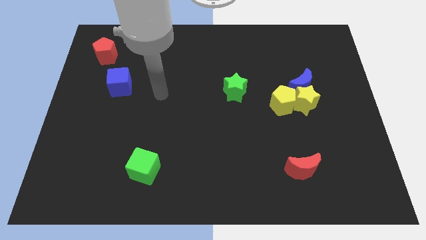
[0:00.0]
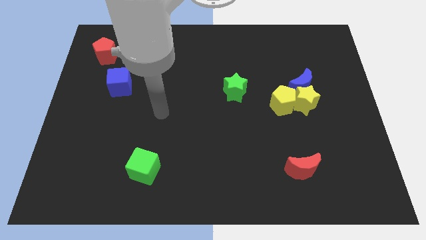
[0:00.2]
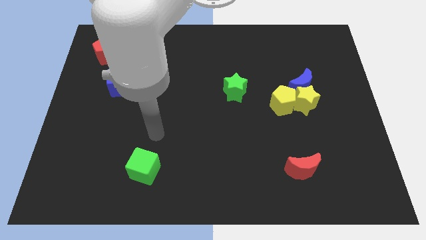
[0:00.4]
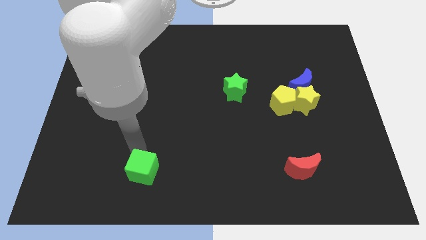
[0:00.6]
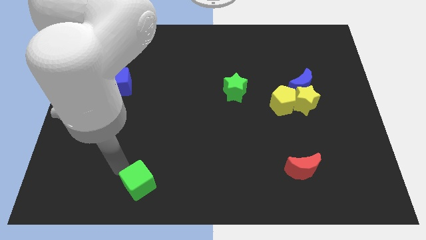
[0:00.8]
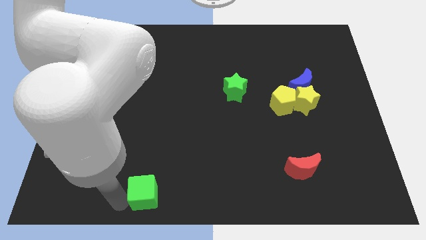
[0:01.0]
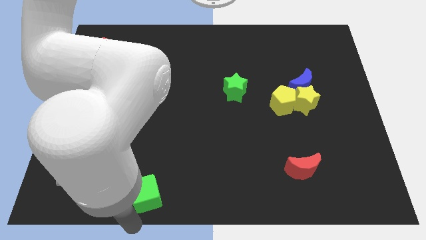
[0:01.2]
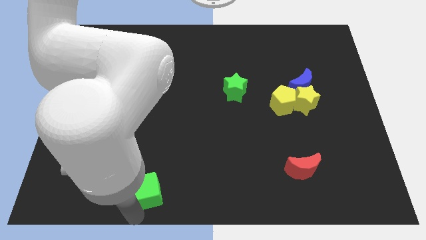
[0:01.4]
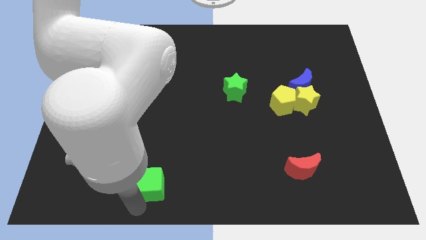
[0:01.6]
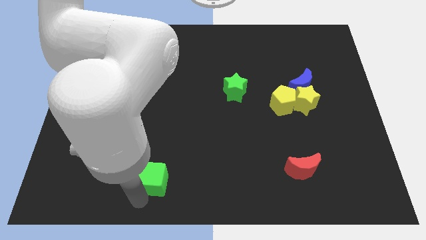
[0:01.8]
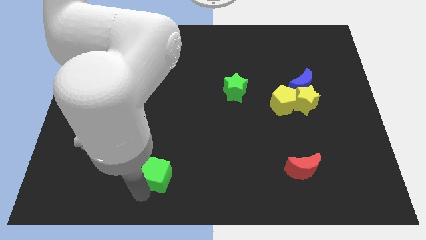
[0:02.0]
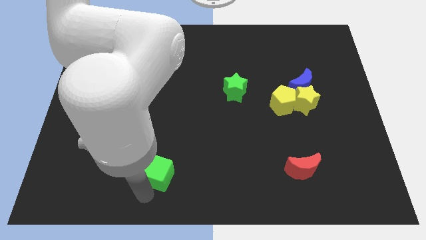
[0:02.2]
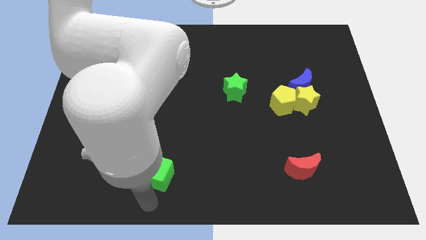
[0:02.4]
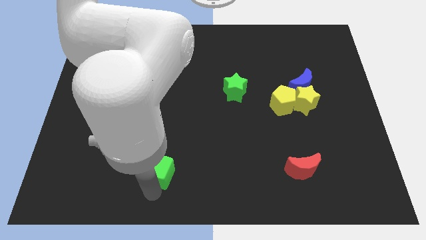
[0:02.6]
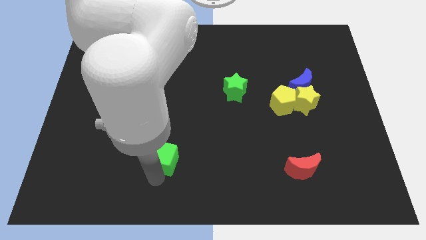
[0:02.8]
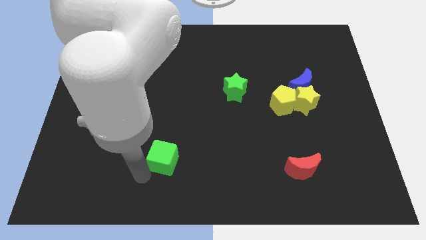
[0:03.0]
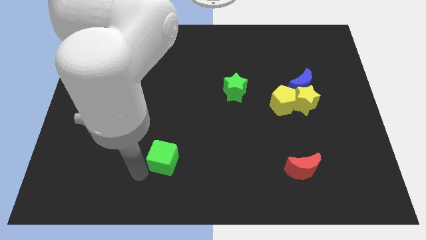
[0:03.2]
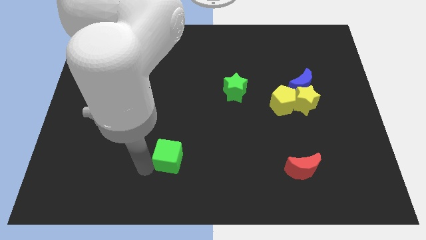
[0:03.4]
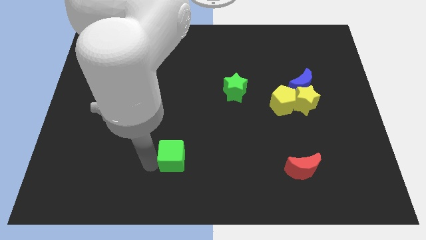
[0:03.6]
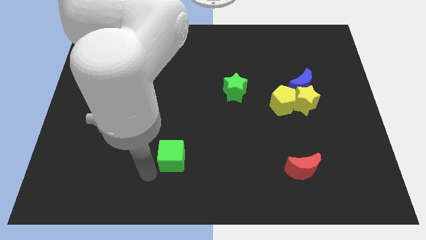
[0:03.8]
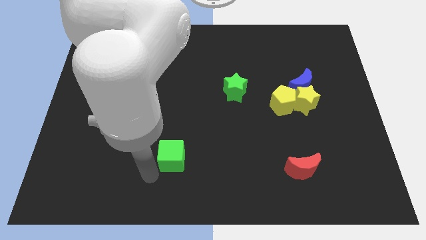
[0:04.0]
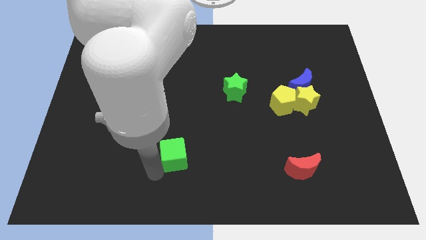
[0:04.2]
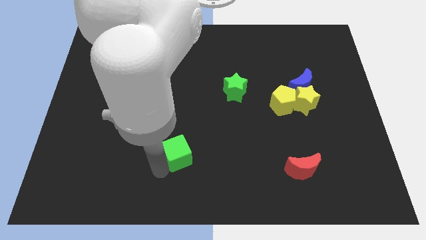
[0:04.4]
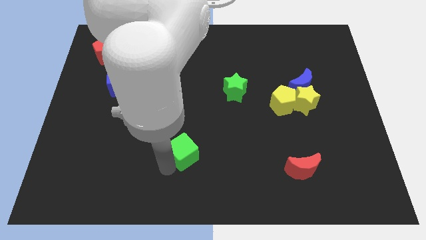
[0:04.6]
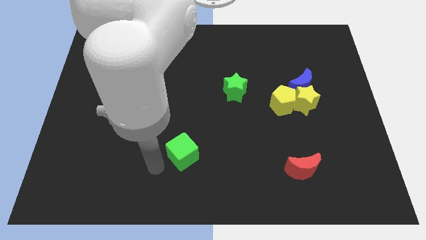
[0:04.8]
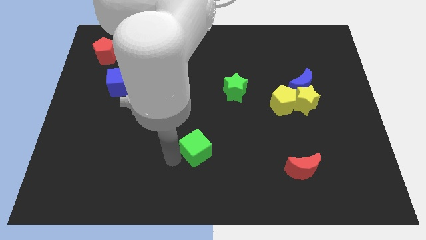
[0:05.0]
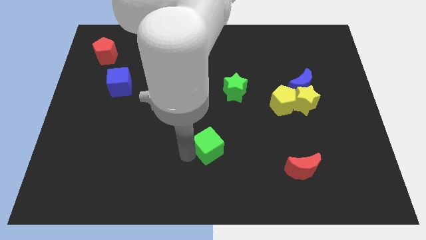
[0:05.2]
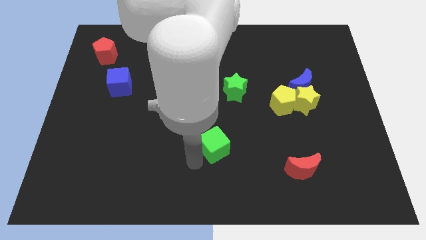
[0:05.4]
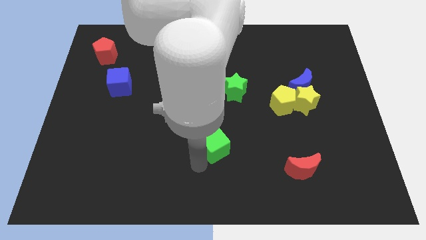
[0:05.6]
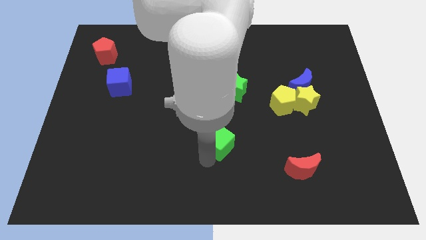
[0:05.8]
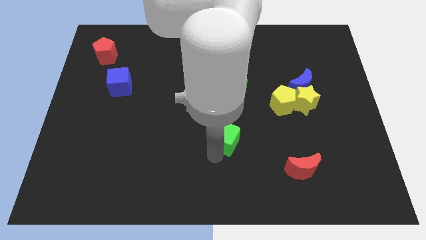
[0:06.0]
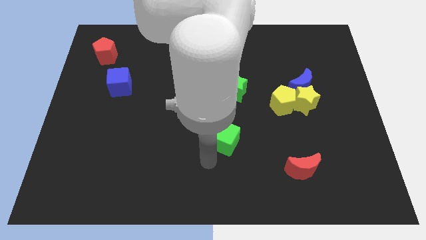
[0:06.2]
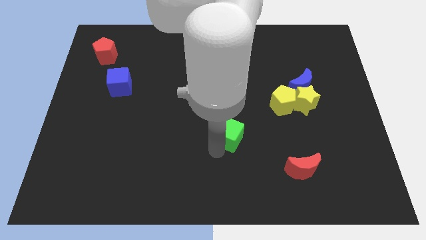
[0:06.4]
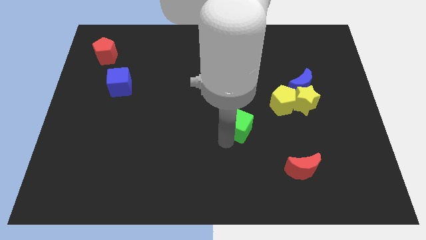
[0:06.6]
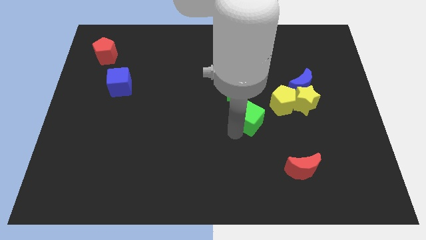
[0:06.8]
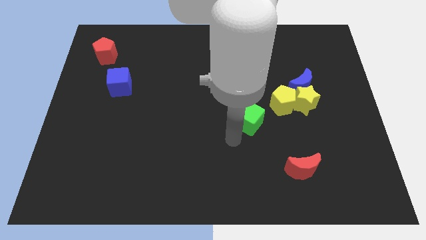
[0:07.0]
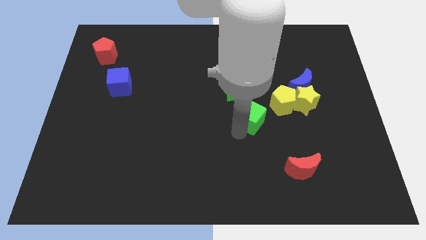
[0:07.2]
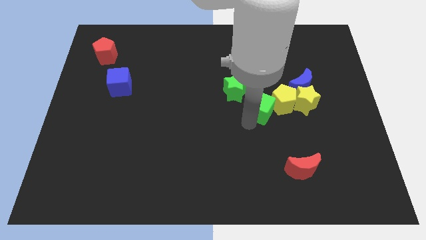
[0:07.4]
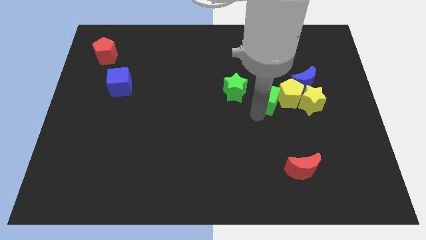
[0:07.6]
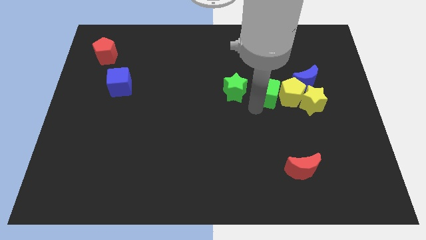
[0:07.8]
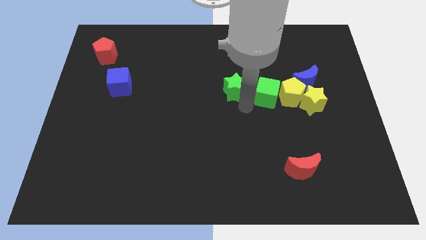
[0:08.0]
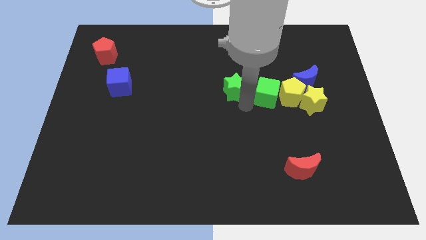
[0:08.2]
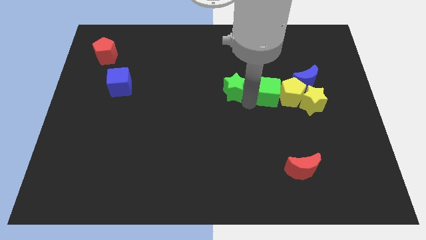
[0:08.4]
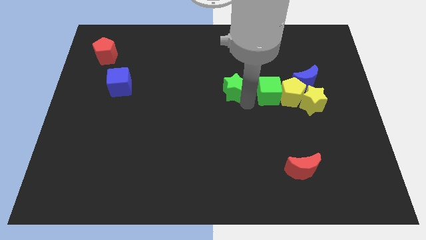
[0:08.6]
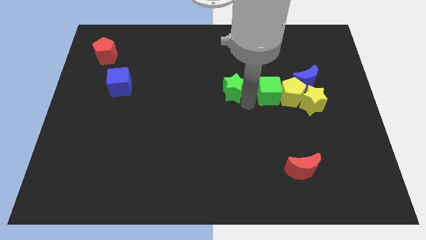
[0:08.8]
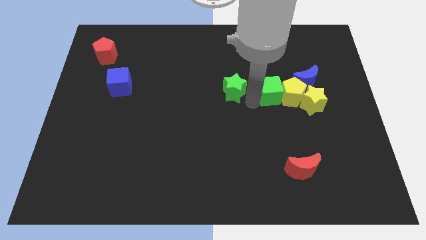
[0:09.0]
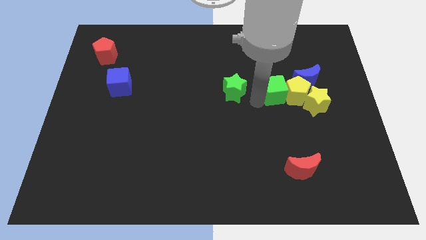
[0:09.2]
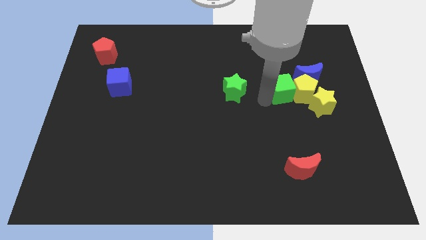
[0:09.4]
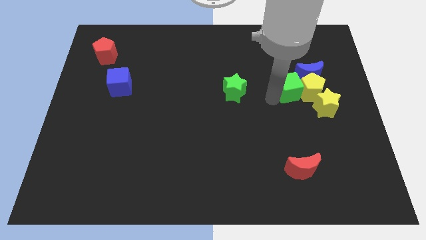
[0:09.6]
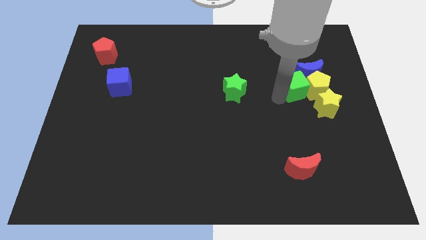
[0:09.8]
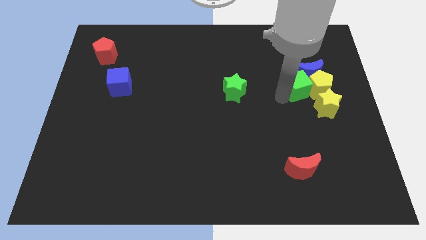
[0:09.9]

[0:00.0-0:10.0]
slide the green cube next to the blue moon

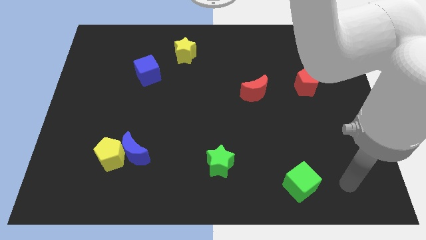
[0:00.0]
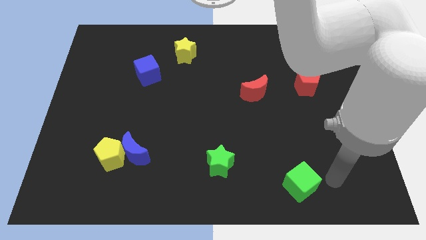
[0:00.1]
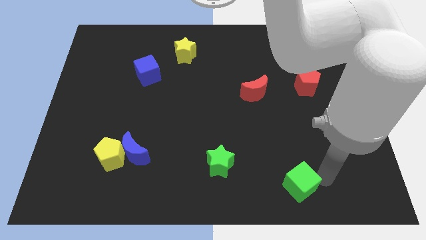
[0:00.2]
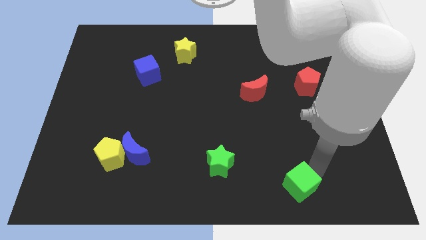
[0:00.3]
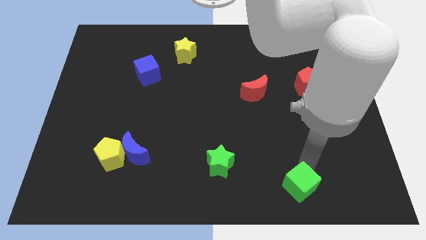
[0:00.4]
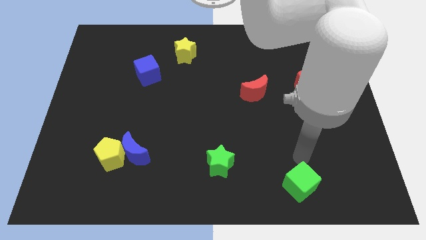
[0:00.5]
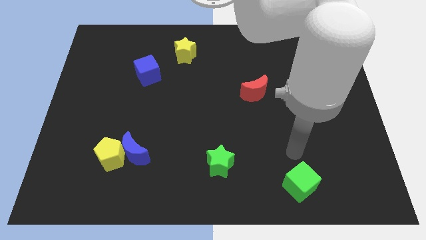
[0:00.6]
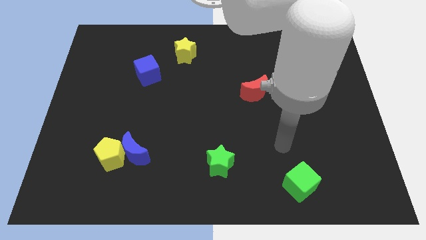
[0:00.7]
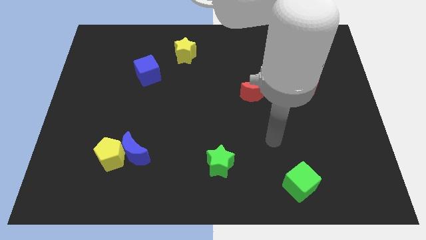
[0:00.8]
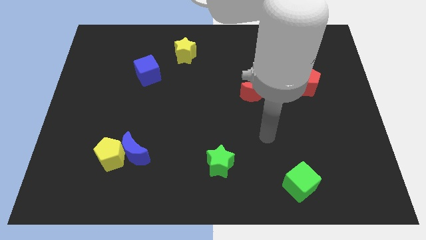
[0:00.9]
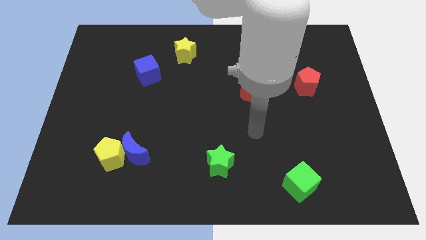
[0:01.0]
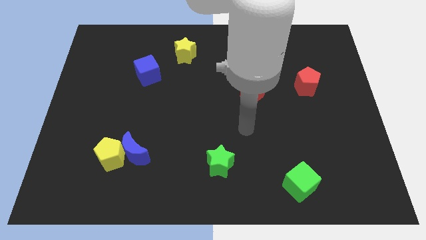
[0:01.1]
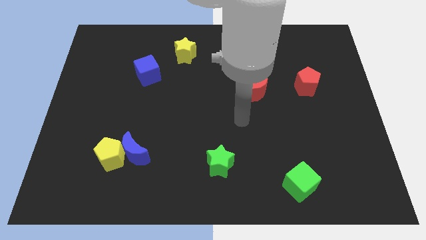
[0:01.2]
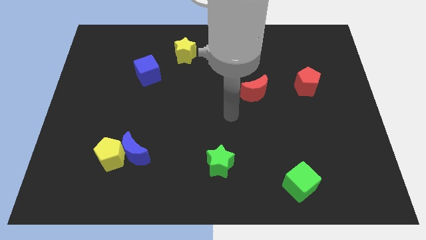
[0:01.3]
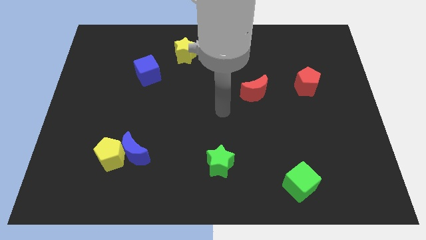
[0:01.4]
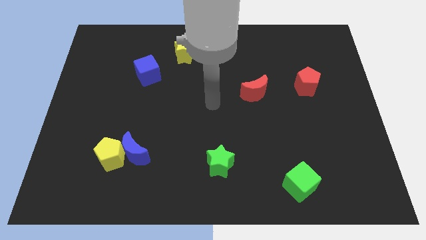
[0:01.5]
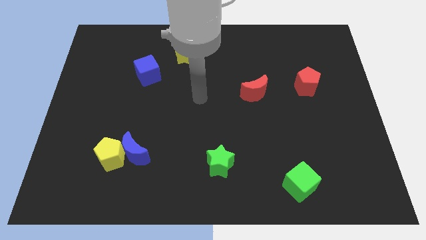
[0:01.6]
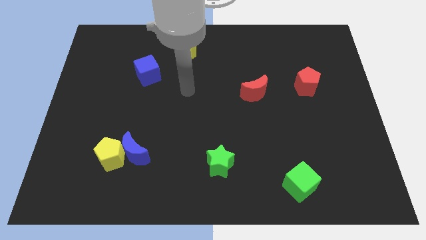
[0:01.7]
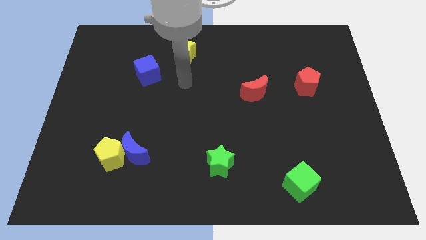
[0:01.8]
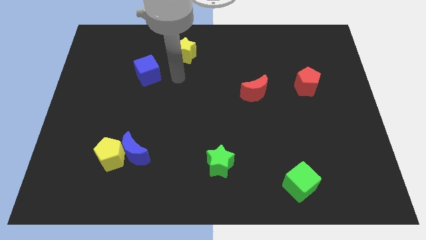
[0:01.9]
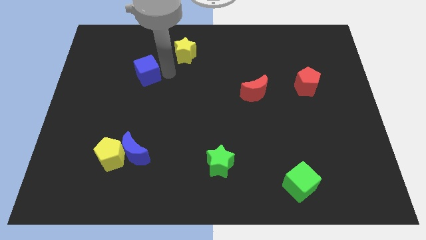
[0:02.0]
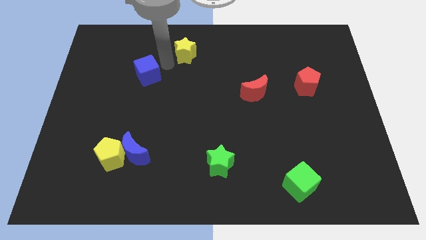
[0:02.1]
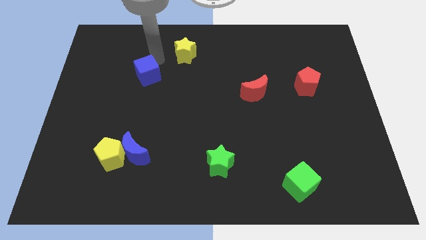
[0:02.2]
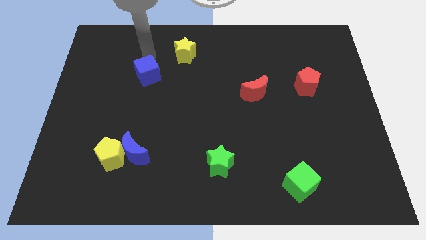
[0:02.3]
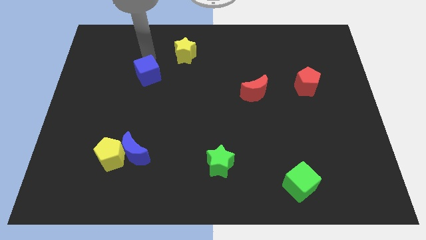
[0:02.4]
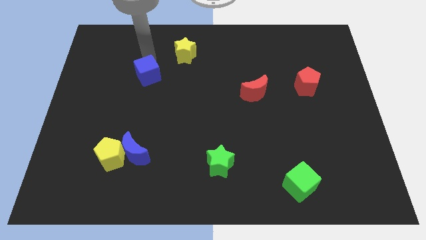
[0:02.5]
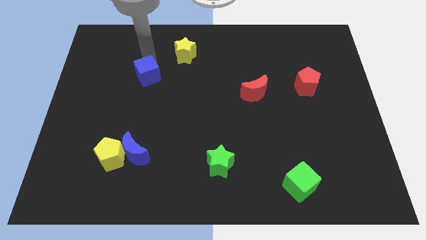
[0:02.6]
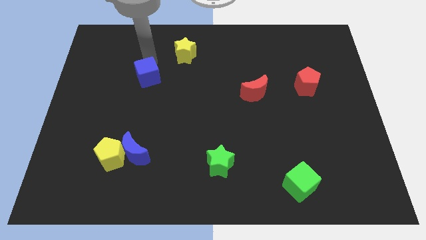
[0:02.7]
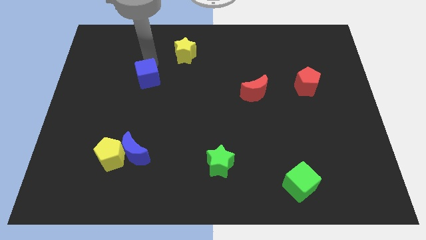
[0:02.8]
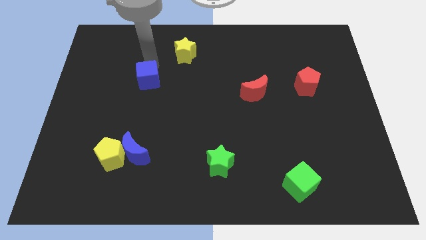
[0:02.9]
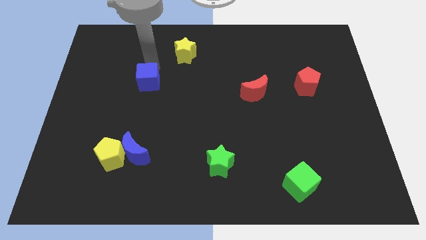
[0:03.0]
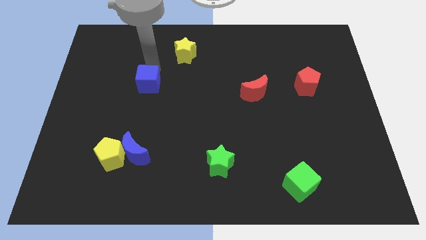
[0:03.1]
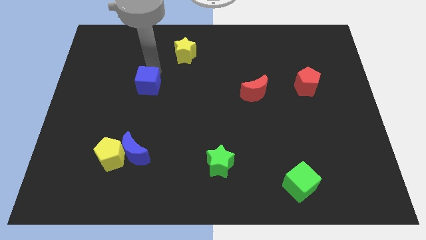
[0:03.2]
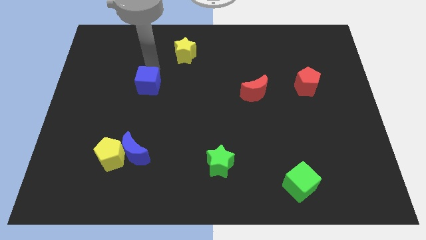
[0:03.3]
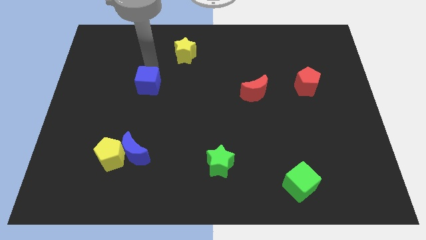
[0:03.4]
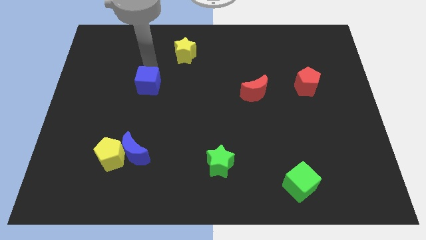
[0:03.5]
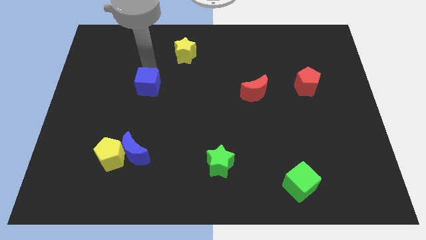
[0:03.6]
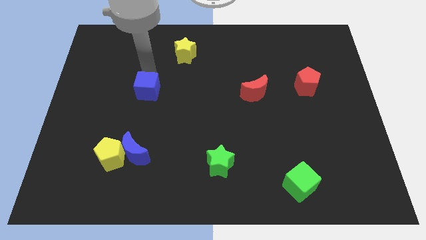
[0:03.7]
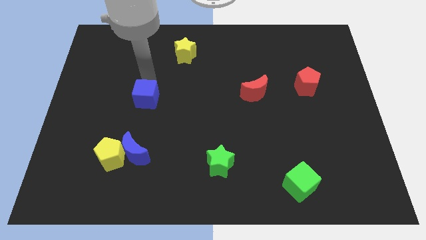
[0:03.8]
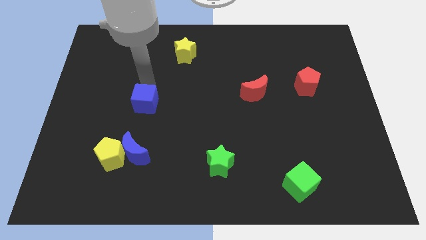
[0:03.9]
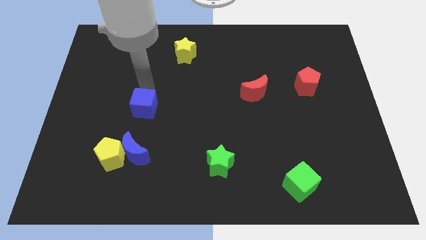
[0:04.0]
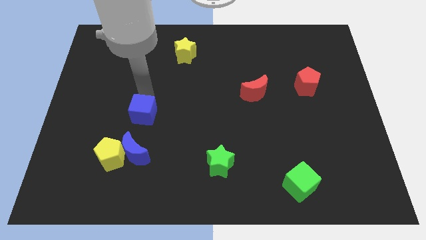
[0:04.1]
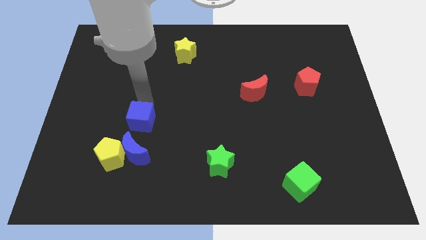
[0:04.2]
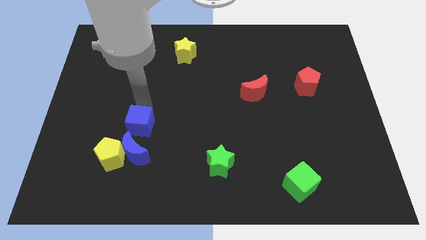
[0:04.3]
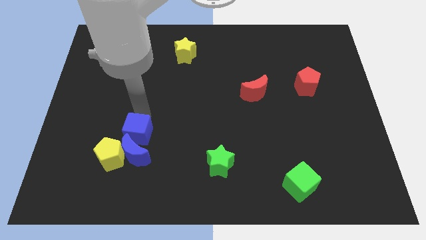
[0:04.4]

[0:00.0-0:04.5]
slide the blue cube to the blue moon
